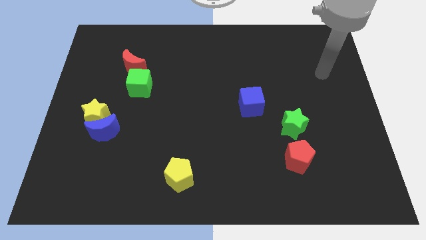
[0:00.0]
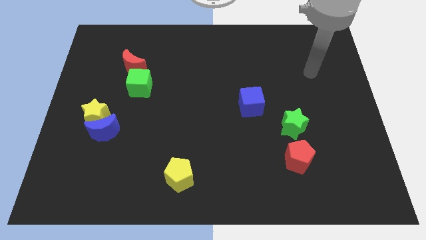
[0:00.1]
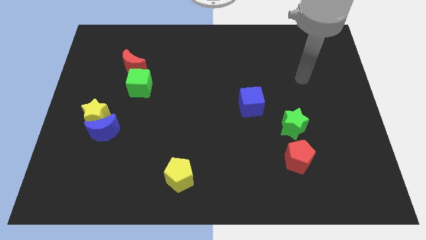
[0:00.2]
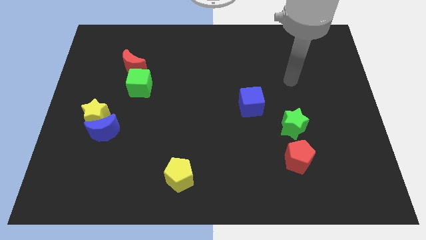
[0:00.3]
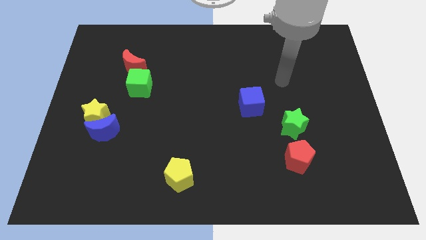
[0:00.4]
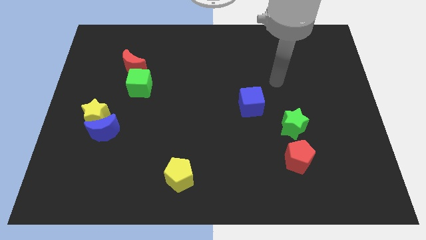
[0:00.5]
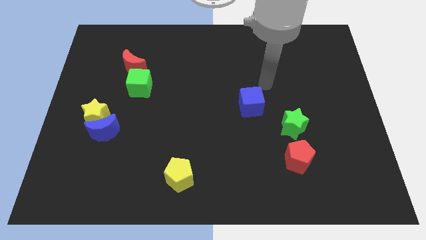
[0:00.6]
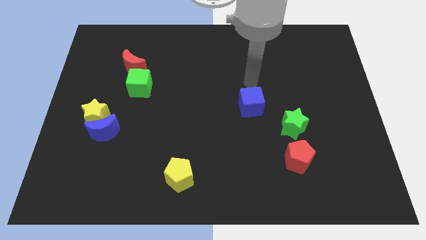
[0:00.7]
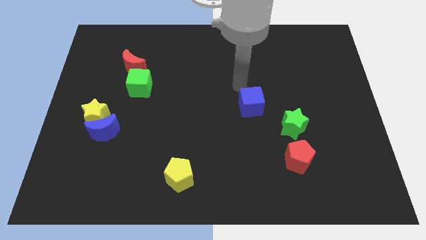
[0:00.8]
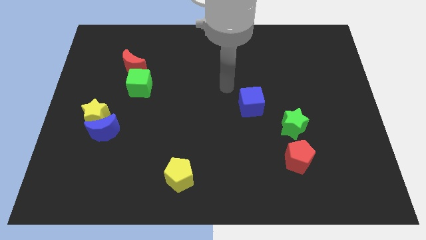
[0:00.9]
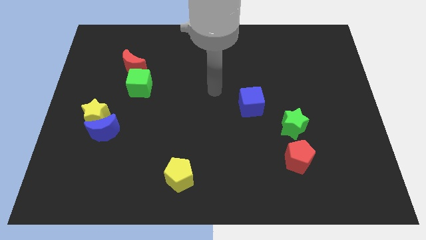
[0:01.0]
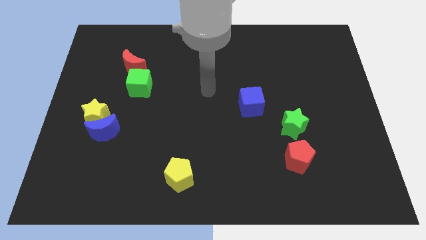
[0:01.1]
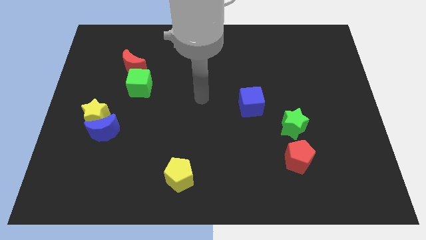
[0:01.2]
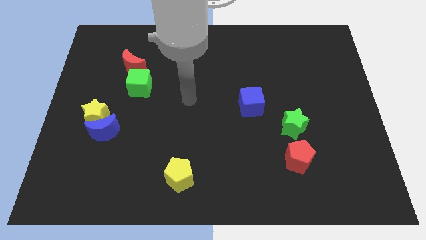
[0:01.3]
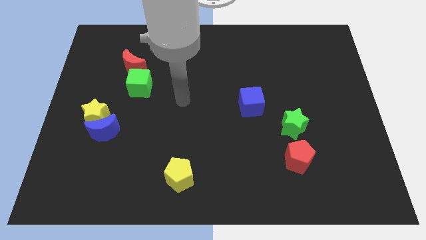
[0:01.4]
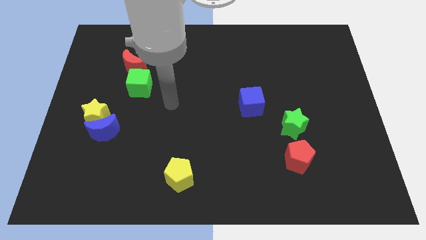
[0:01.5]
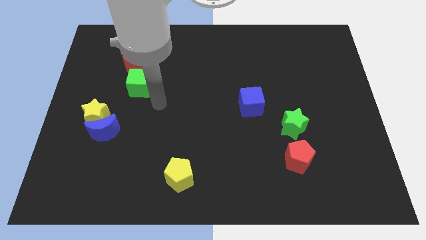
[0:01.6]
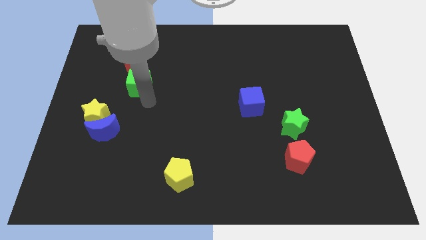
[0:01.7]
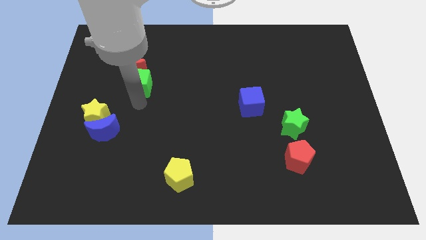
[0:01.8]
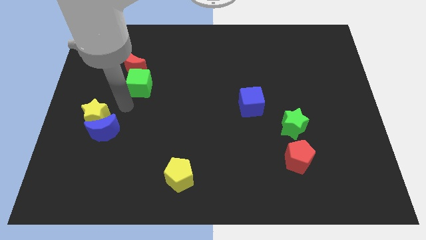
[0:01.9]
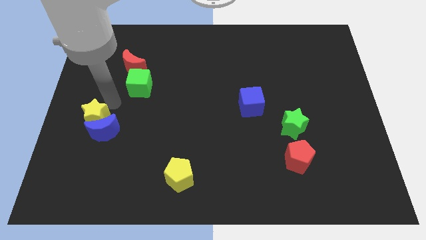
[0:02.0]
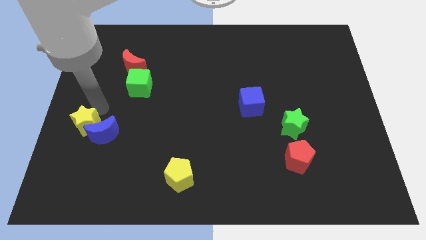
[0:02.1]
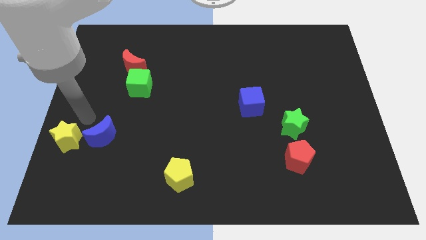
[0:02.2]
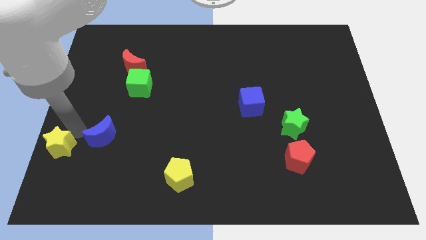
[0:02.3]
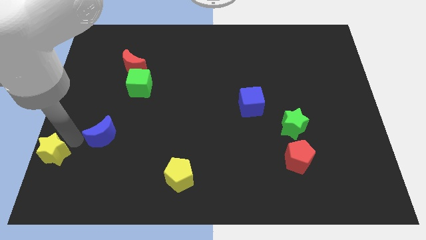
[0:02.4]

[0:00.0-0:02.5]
move the blue moon away from the yellow star

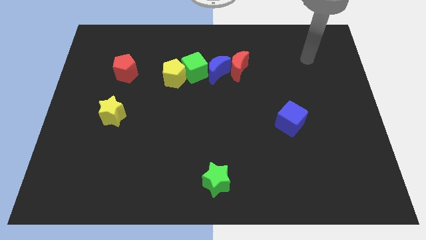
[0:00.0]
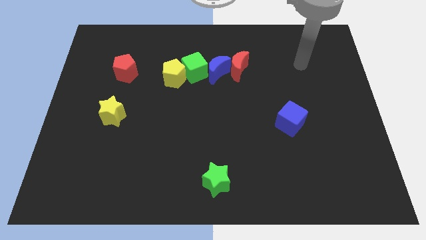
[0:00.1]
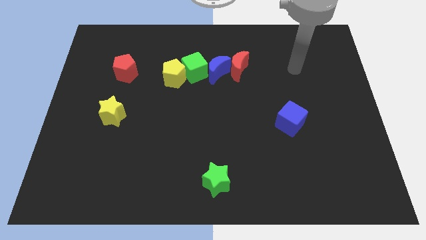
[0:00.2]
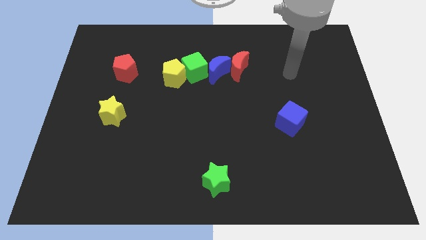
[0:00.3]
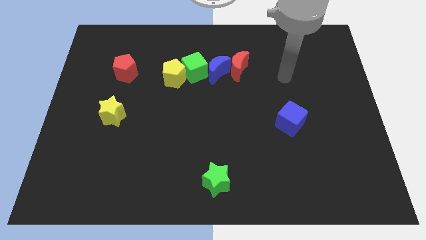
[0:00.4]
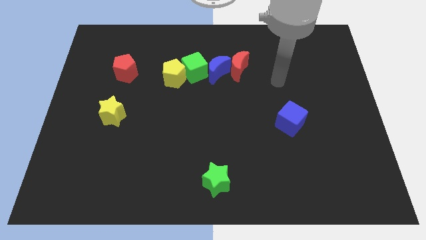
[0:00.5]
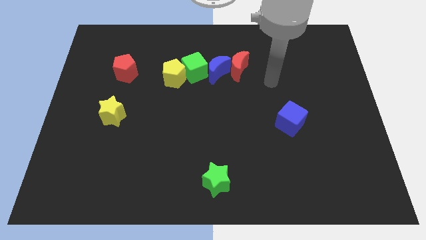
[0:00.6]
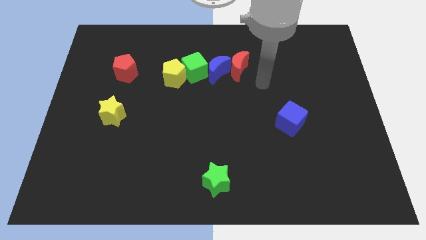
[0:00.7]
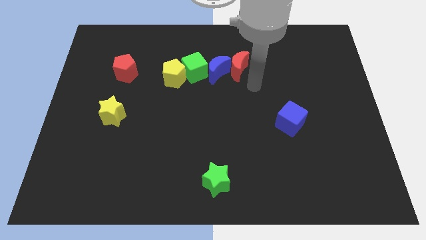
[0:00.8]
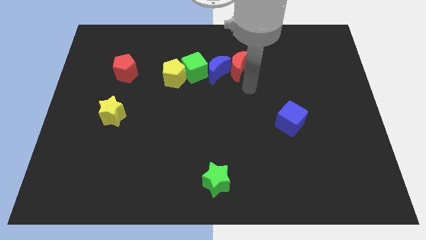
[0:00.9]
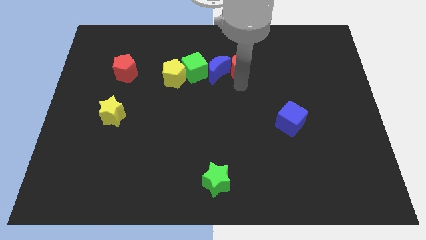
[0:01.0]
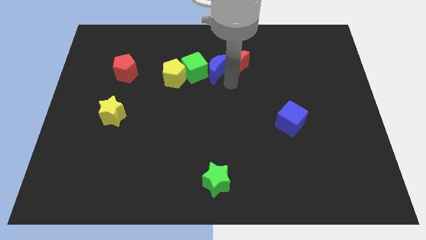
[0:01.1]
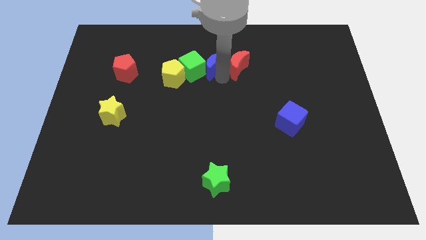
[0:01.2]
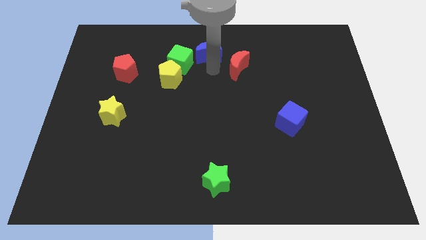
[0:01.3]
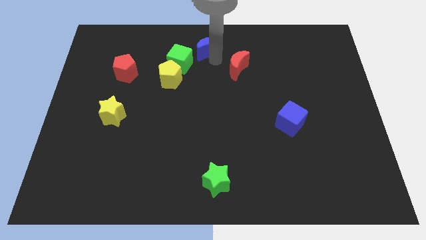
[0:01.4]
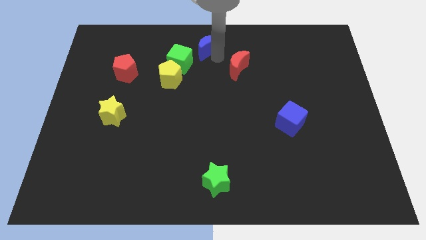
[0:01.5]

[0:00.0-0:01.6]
pull the red moon apart from the blue moon

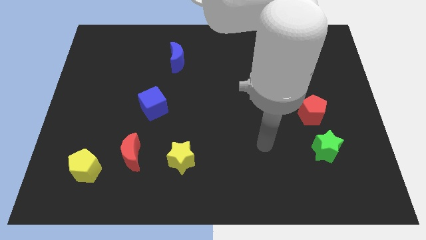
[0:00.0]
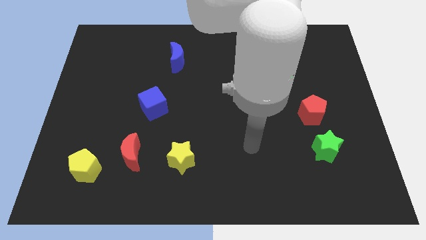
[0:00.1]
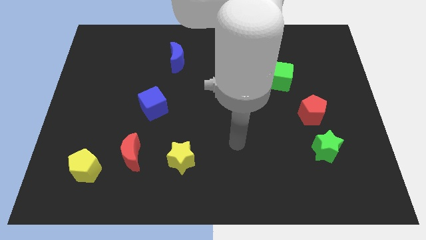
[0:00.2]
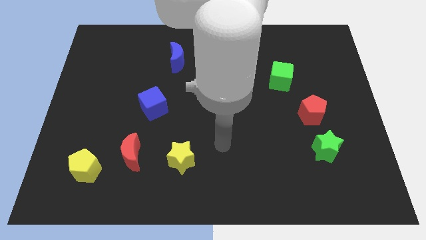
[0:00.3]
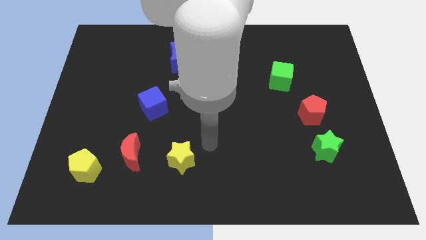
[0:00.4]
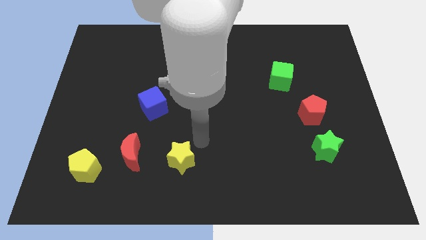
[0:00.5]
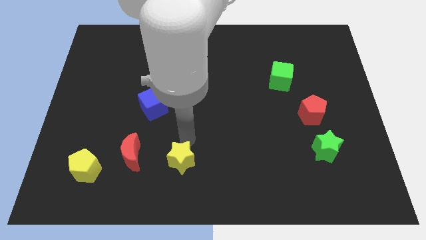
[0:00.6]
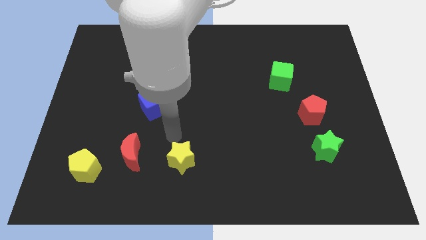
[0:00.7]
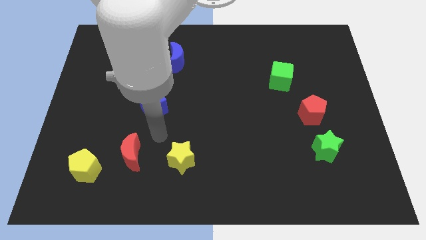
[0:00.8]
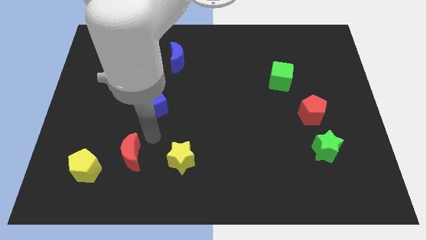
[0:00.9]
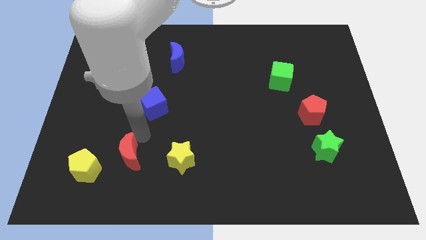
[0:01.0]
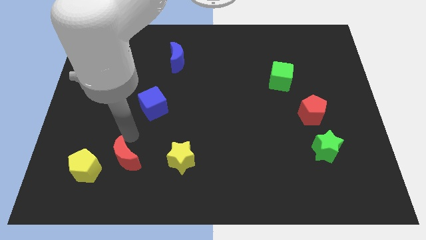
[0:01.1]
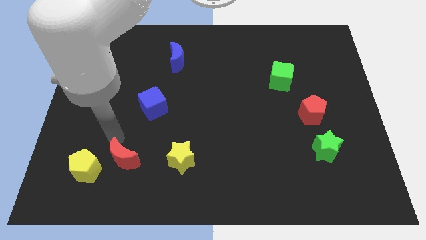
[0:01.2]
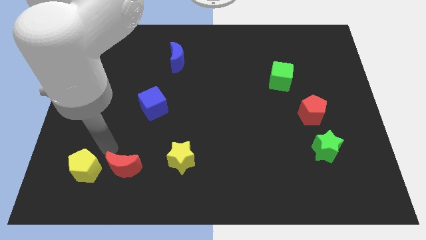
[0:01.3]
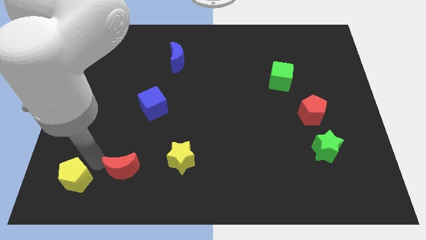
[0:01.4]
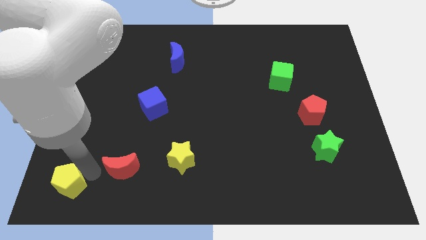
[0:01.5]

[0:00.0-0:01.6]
pull the red moon apart from the yellow pentagon

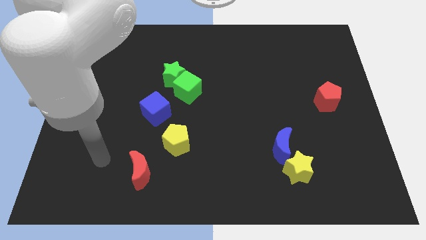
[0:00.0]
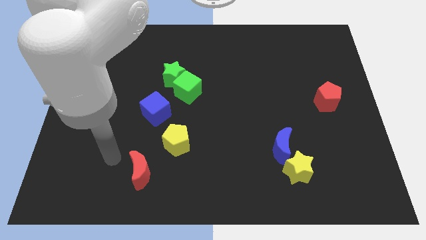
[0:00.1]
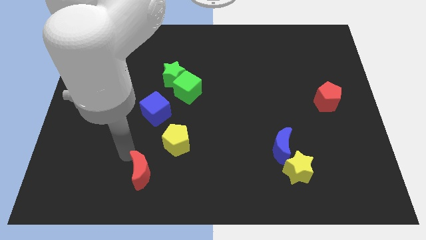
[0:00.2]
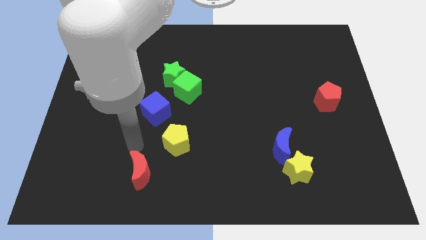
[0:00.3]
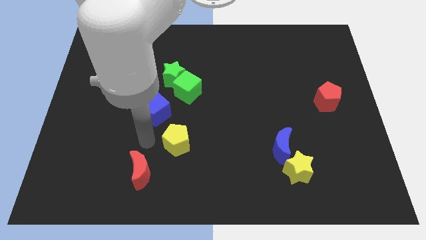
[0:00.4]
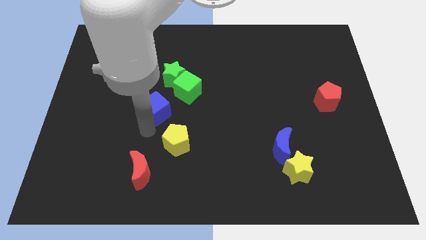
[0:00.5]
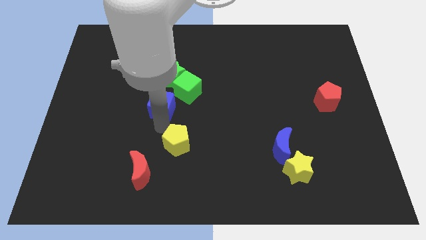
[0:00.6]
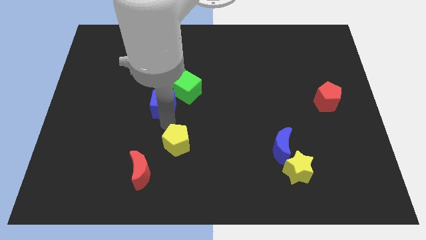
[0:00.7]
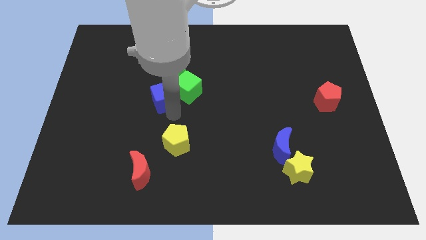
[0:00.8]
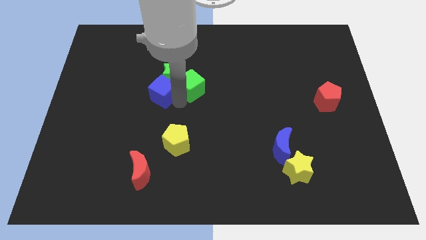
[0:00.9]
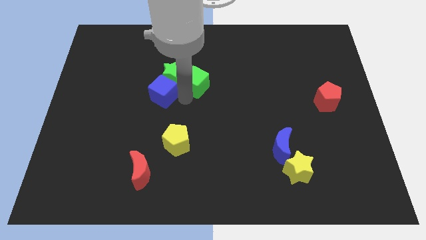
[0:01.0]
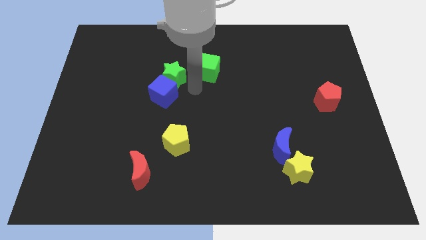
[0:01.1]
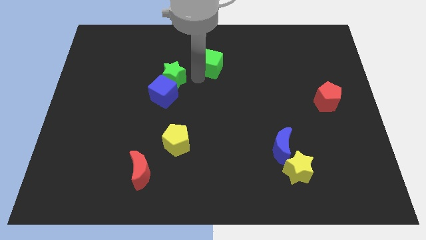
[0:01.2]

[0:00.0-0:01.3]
move the green star away from the green cube

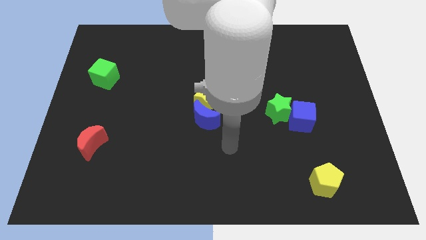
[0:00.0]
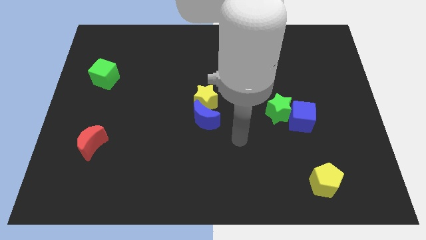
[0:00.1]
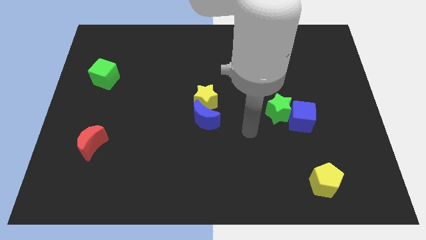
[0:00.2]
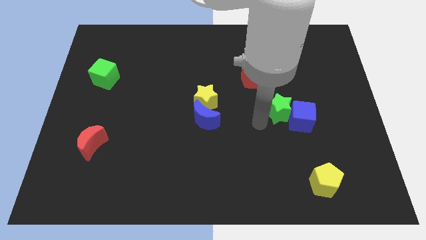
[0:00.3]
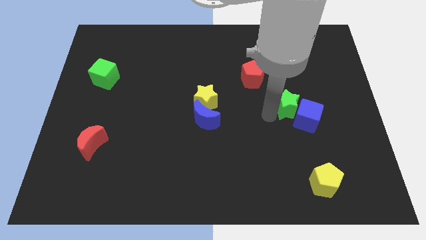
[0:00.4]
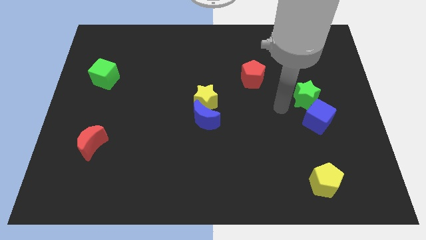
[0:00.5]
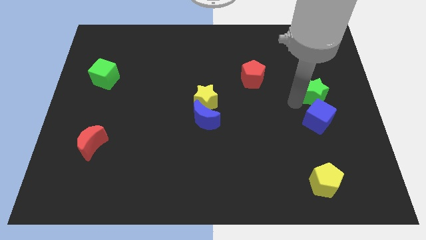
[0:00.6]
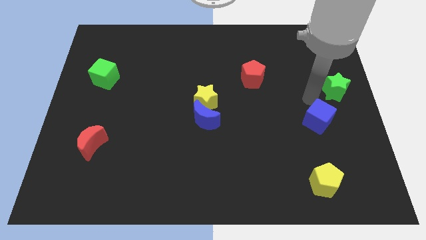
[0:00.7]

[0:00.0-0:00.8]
pull the blue cube apart from the green star

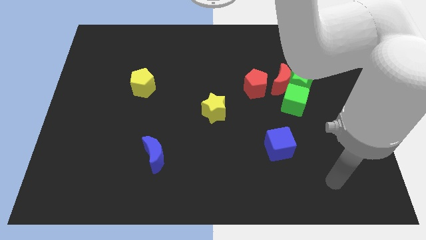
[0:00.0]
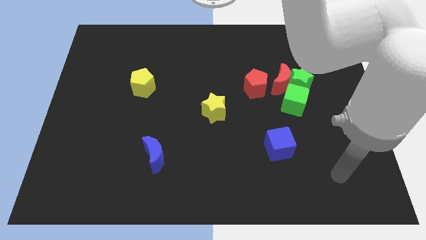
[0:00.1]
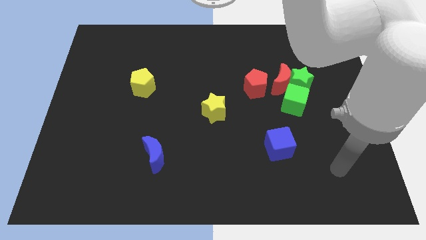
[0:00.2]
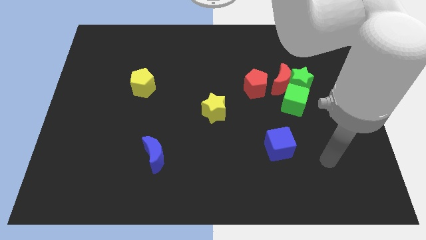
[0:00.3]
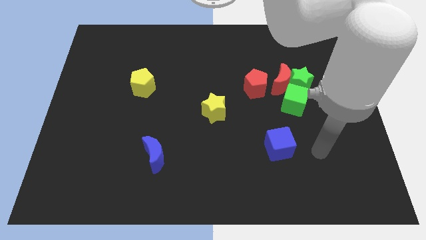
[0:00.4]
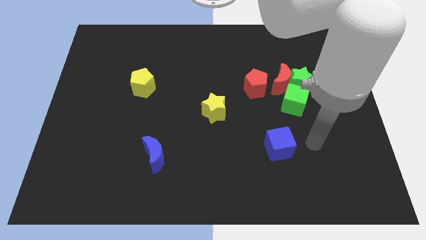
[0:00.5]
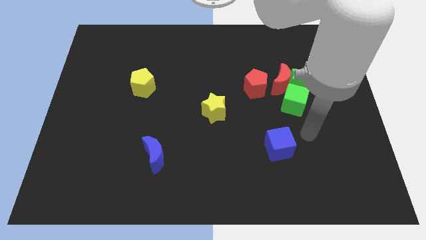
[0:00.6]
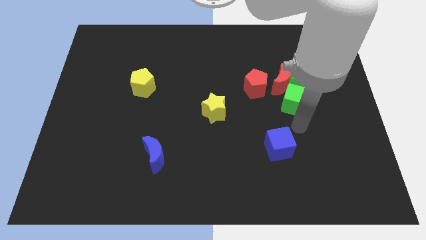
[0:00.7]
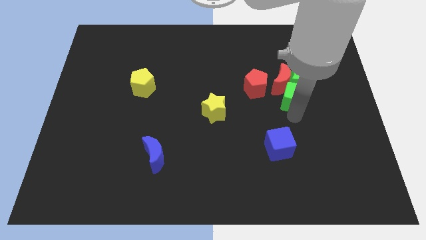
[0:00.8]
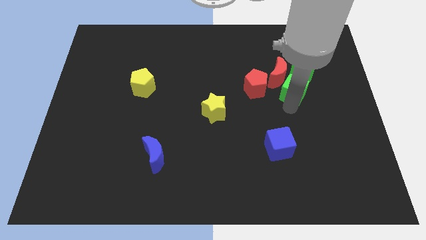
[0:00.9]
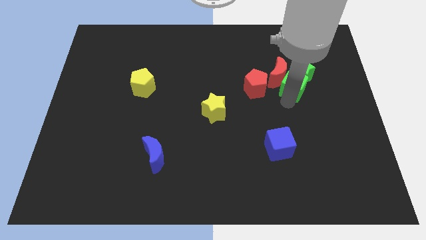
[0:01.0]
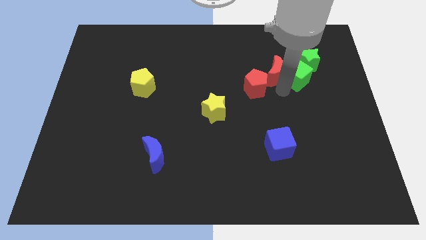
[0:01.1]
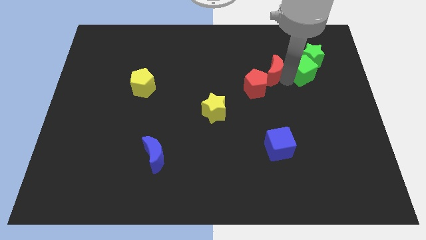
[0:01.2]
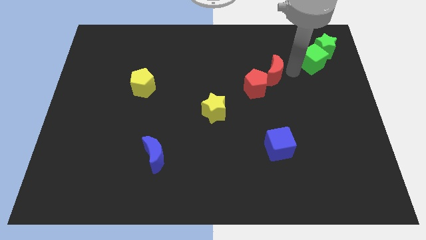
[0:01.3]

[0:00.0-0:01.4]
move the green star away from the red moon and green cube

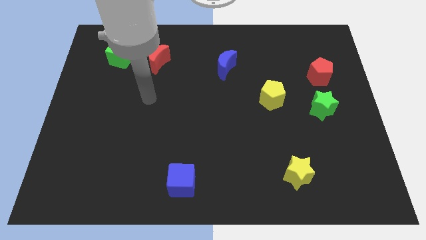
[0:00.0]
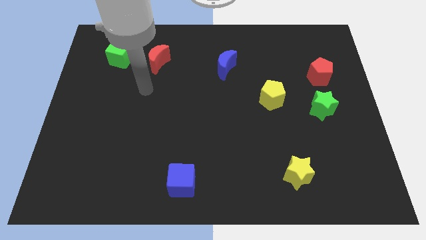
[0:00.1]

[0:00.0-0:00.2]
pull the red moon apart from the green cube
